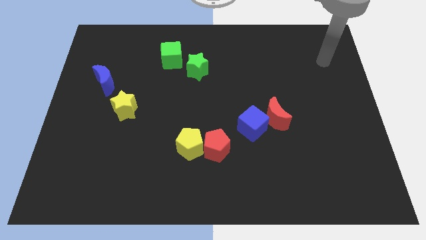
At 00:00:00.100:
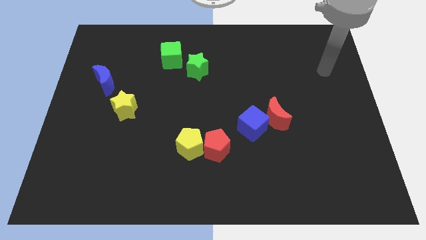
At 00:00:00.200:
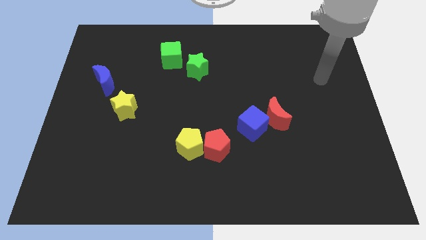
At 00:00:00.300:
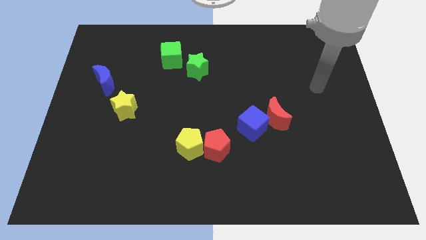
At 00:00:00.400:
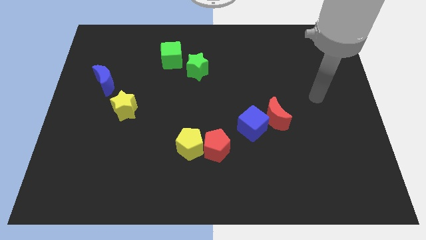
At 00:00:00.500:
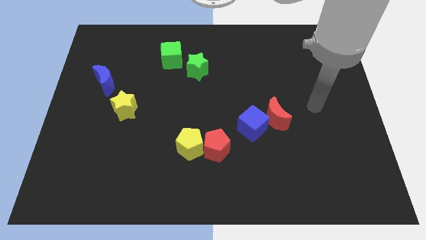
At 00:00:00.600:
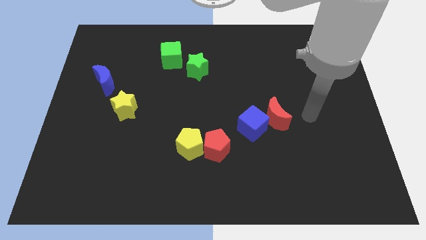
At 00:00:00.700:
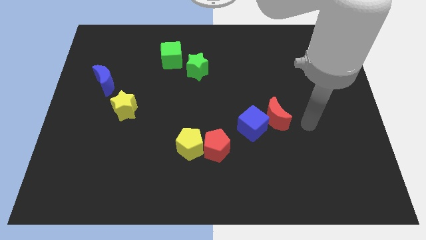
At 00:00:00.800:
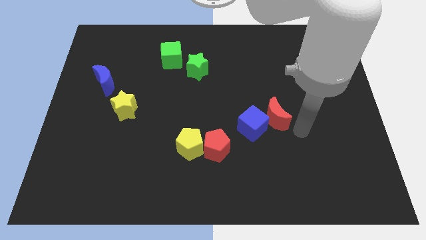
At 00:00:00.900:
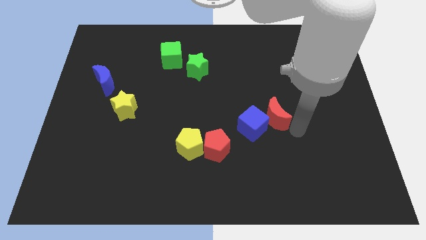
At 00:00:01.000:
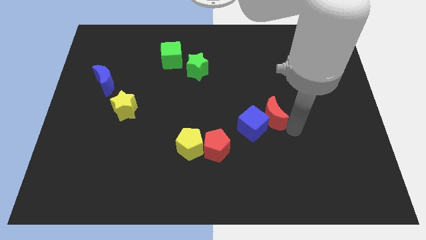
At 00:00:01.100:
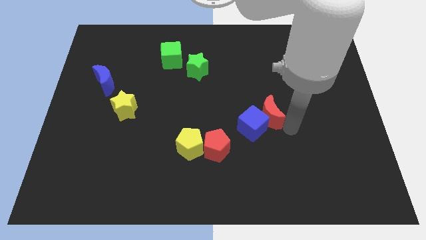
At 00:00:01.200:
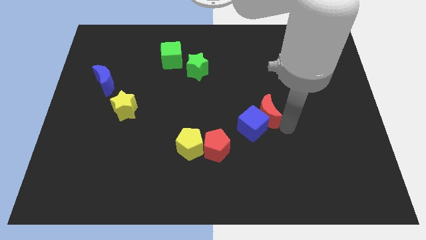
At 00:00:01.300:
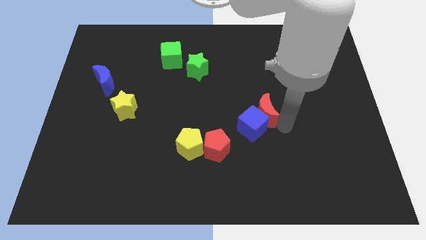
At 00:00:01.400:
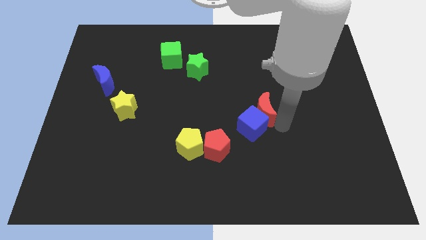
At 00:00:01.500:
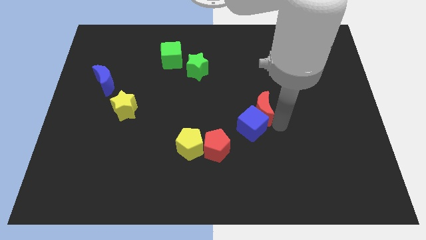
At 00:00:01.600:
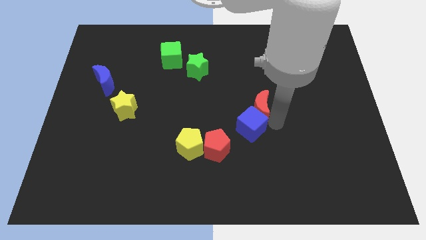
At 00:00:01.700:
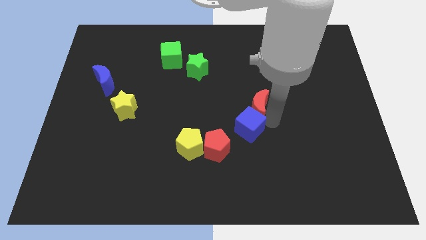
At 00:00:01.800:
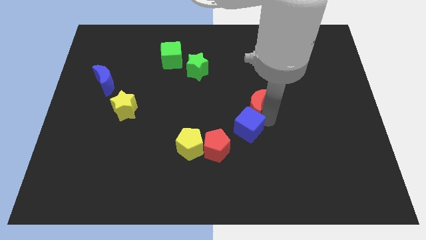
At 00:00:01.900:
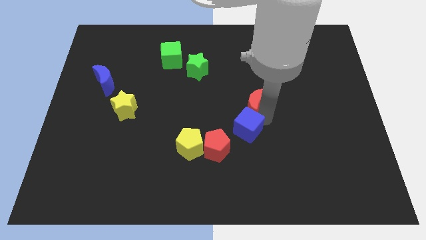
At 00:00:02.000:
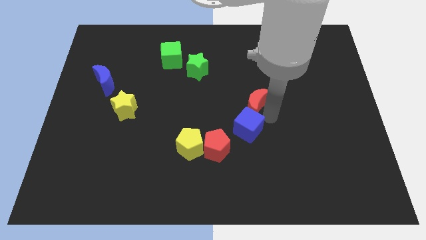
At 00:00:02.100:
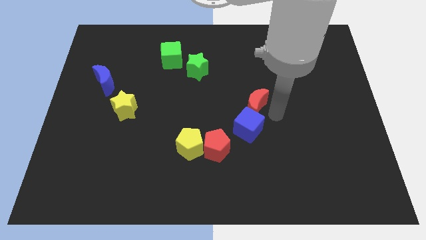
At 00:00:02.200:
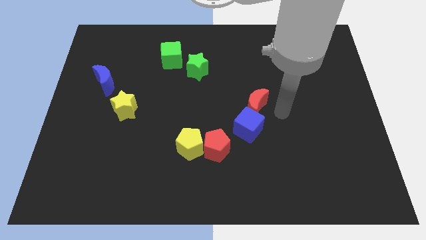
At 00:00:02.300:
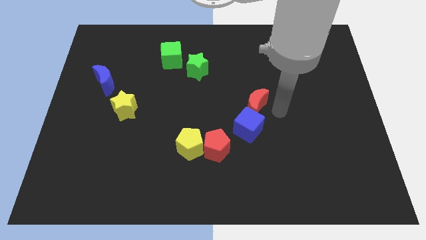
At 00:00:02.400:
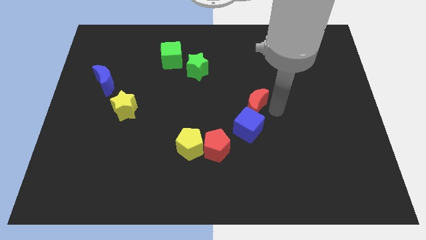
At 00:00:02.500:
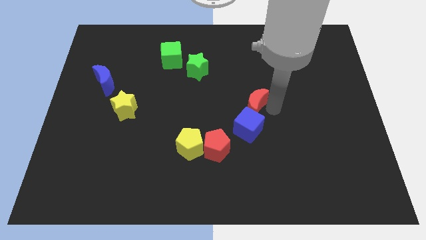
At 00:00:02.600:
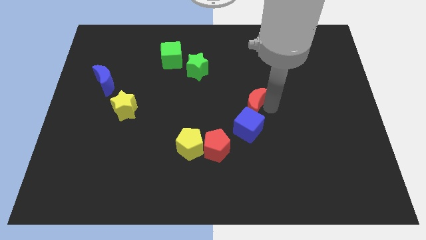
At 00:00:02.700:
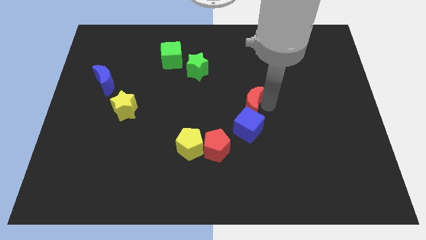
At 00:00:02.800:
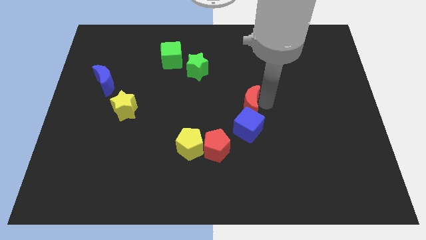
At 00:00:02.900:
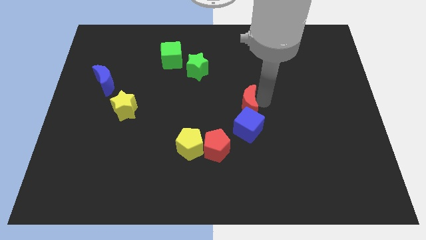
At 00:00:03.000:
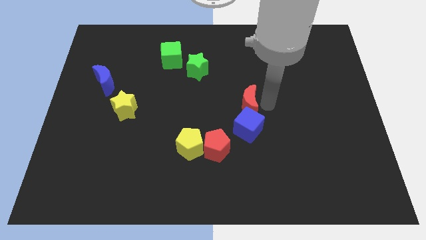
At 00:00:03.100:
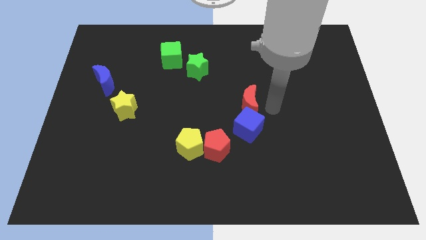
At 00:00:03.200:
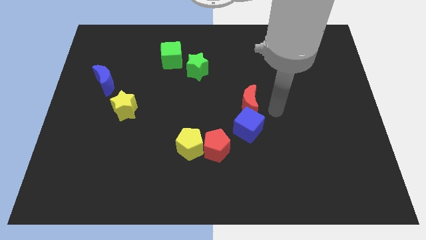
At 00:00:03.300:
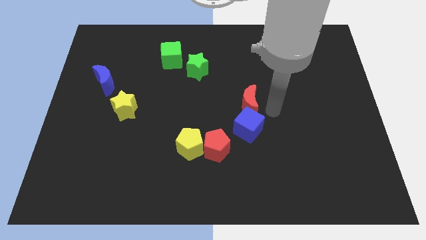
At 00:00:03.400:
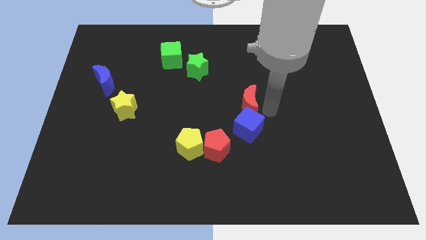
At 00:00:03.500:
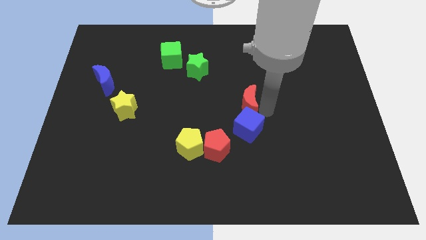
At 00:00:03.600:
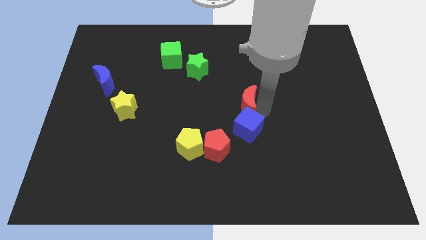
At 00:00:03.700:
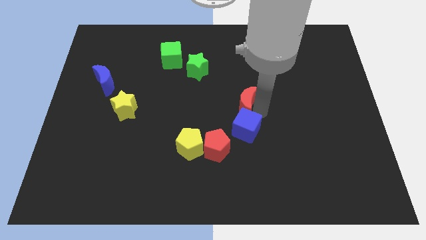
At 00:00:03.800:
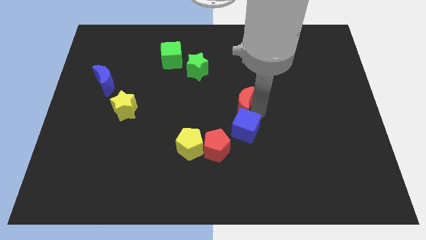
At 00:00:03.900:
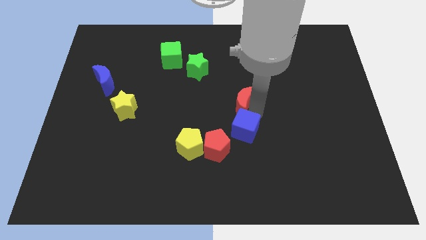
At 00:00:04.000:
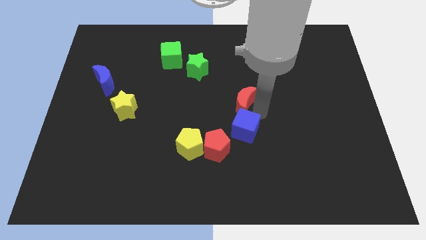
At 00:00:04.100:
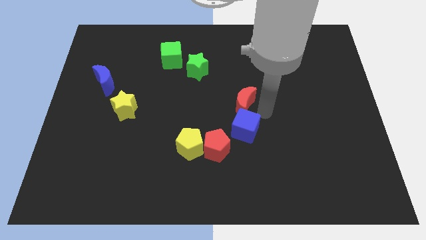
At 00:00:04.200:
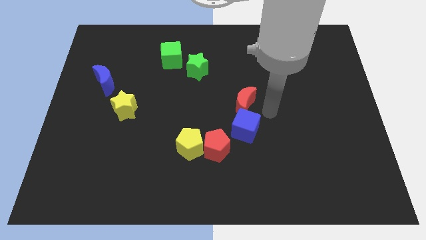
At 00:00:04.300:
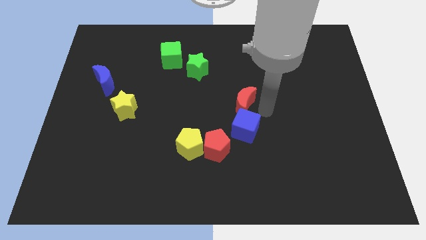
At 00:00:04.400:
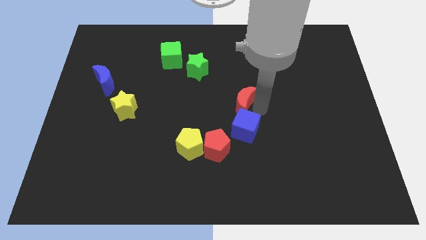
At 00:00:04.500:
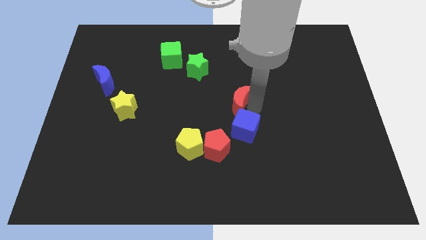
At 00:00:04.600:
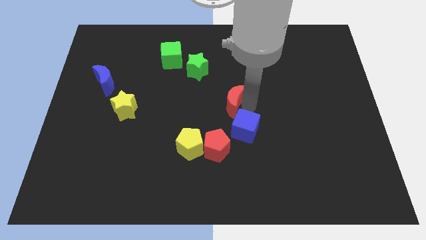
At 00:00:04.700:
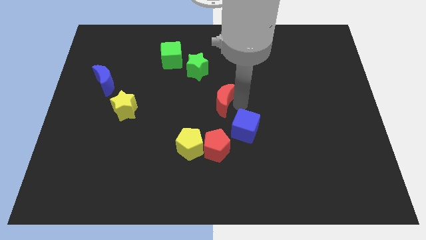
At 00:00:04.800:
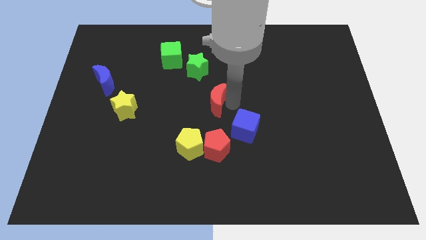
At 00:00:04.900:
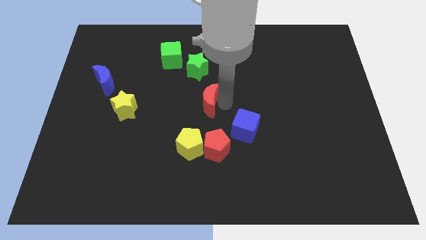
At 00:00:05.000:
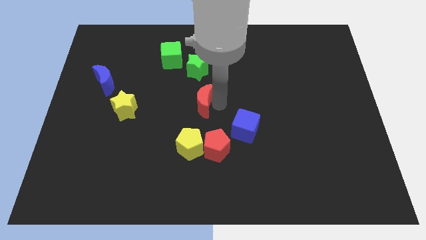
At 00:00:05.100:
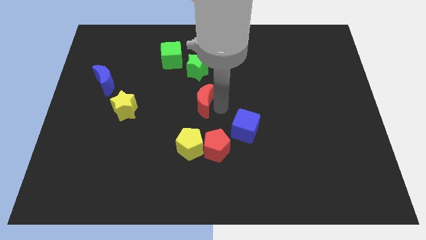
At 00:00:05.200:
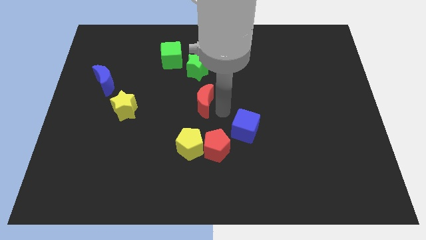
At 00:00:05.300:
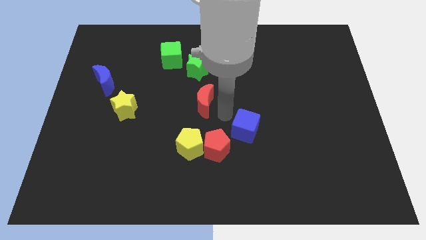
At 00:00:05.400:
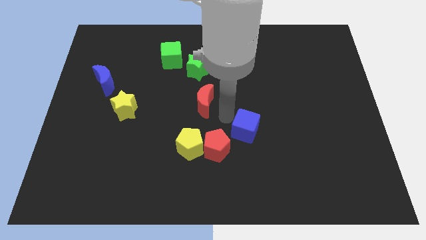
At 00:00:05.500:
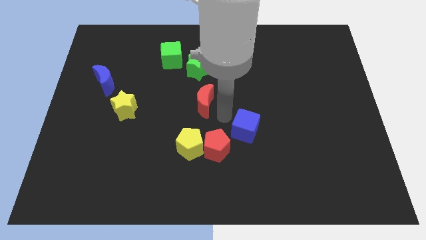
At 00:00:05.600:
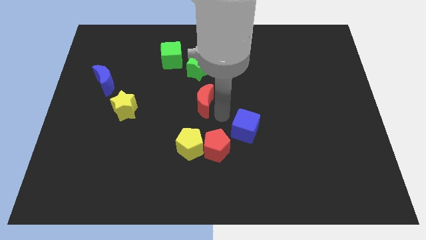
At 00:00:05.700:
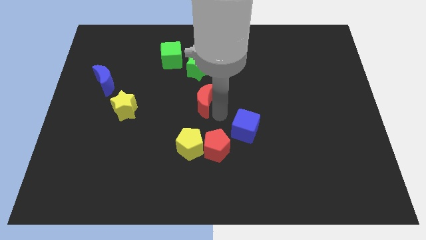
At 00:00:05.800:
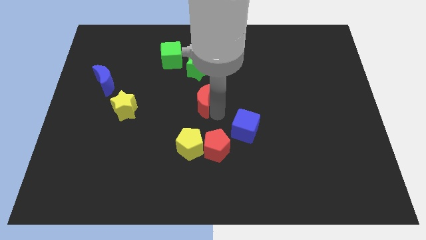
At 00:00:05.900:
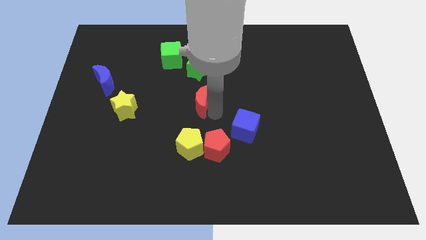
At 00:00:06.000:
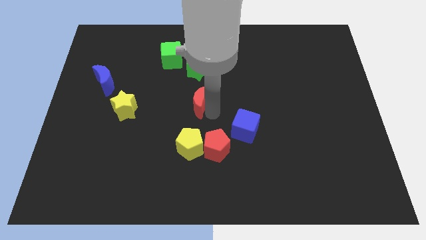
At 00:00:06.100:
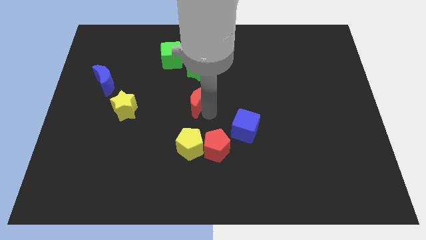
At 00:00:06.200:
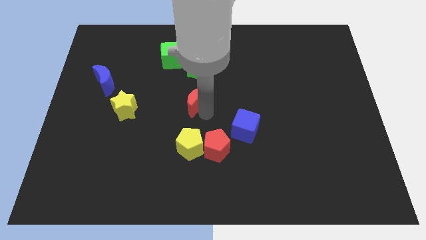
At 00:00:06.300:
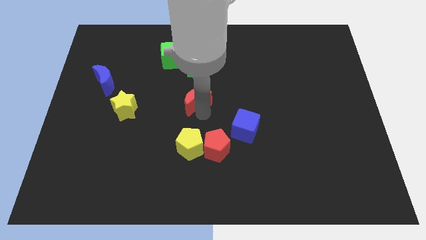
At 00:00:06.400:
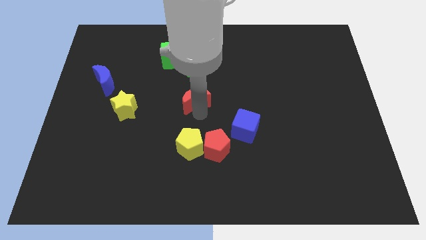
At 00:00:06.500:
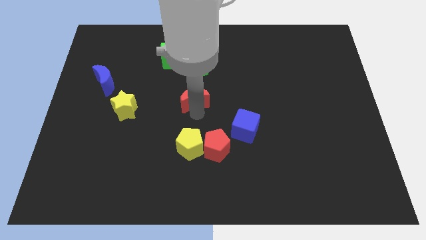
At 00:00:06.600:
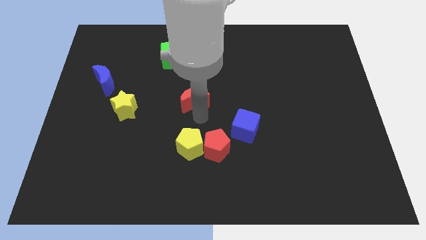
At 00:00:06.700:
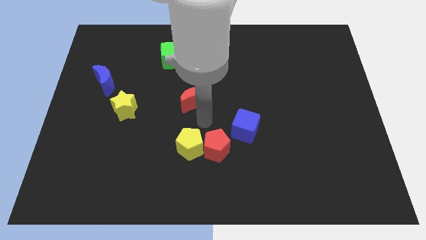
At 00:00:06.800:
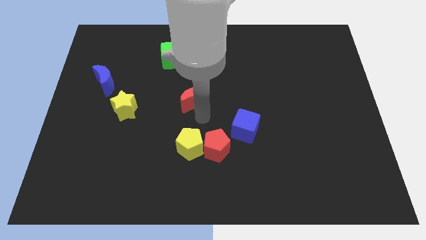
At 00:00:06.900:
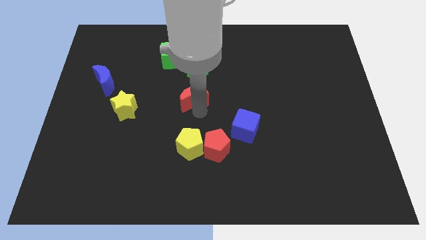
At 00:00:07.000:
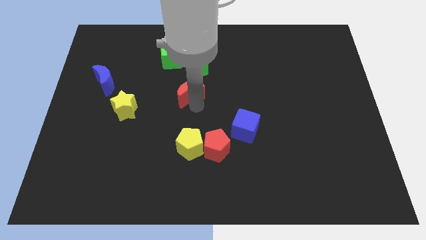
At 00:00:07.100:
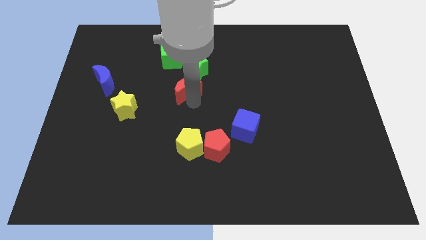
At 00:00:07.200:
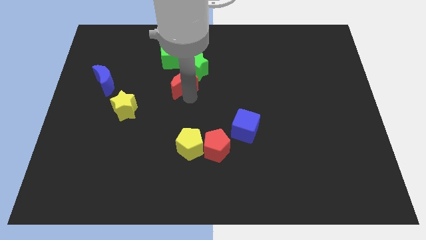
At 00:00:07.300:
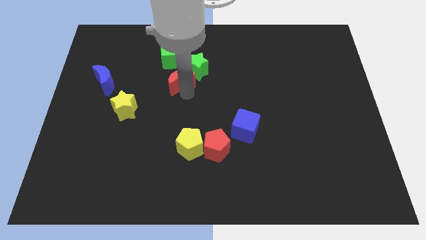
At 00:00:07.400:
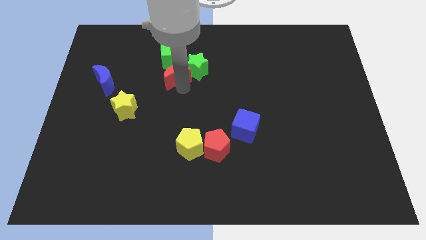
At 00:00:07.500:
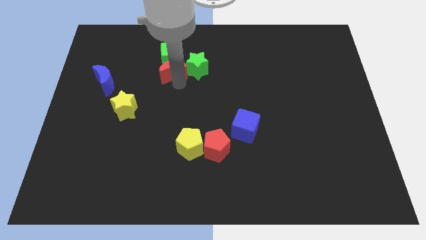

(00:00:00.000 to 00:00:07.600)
put the red moon towards the green cube
